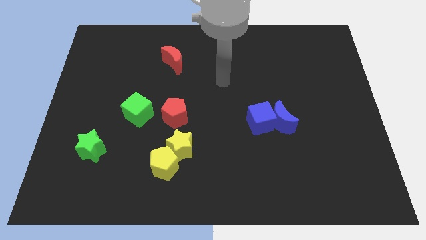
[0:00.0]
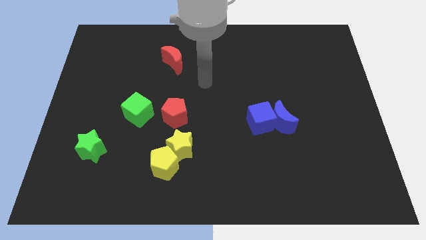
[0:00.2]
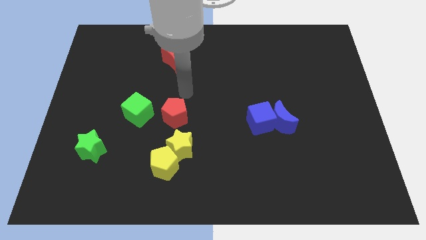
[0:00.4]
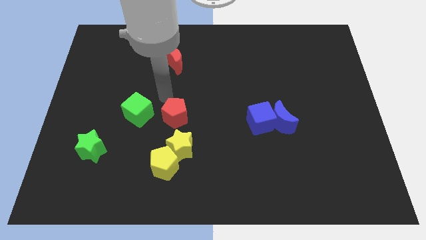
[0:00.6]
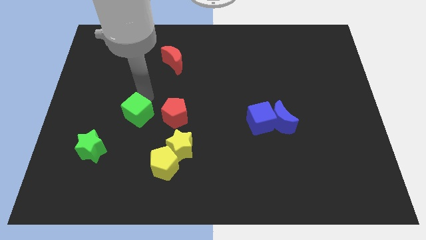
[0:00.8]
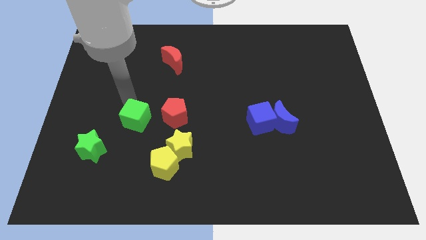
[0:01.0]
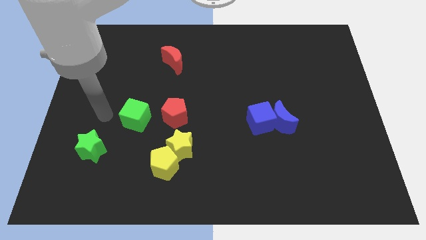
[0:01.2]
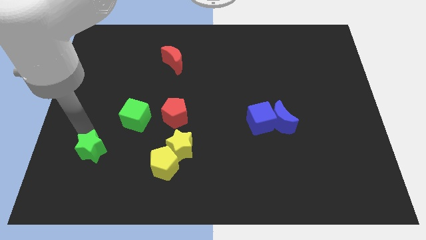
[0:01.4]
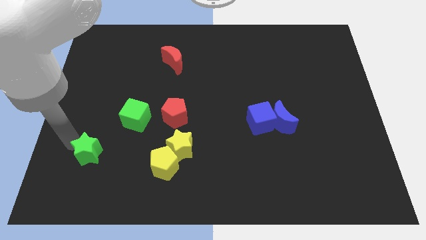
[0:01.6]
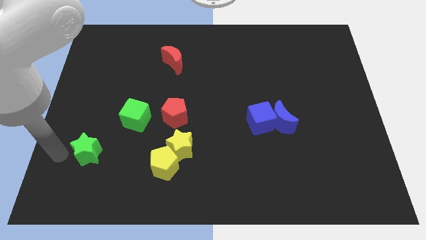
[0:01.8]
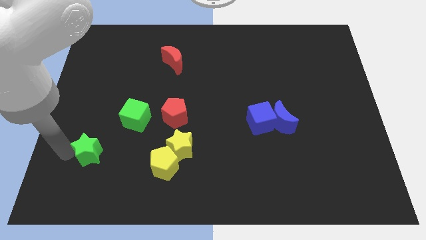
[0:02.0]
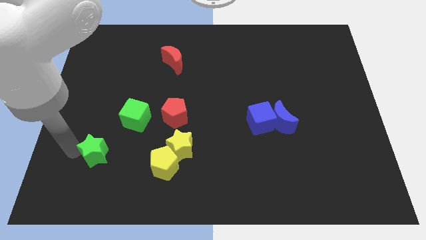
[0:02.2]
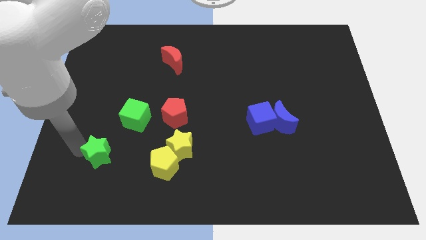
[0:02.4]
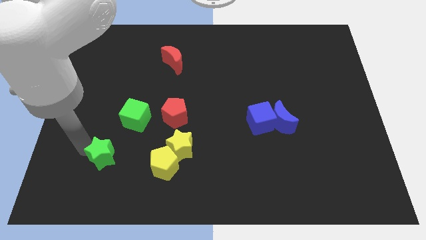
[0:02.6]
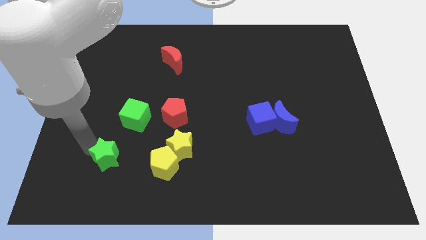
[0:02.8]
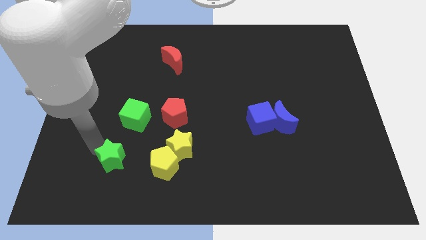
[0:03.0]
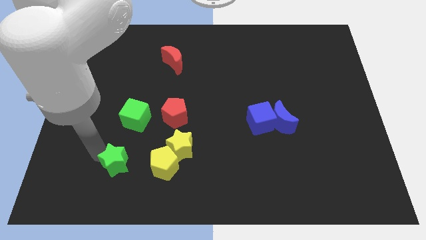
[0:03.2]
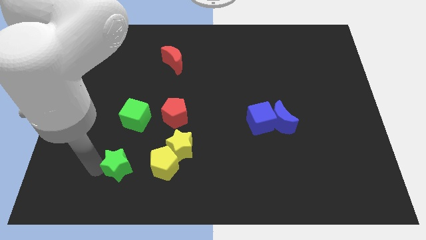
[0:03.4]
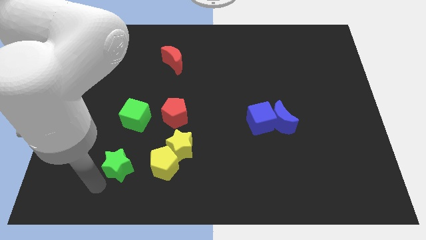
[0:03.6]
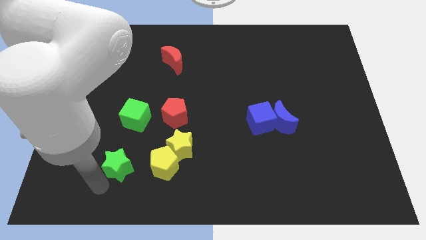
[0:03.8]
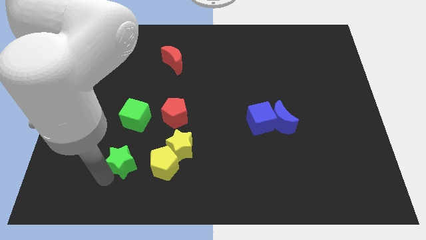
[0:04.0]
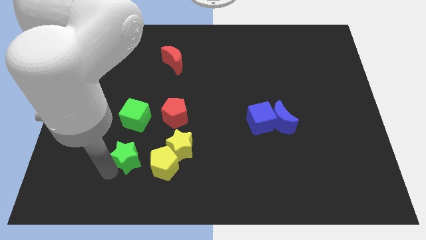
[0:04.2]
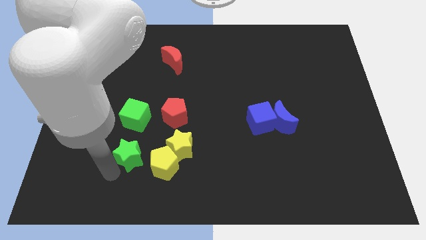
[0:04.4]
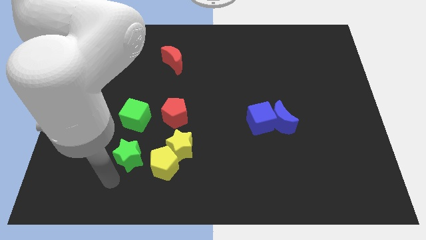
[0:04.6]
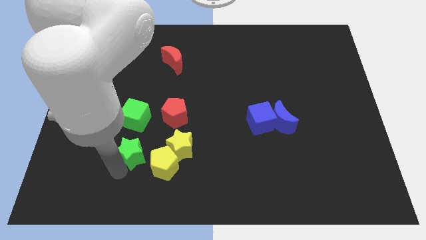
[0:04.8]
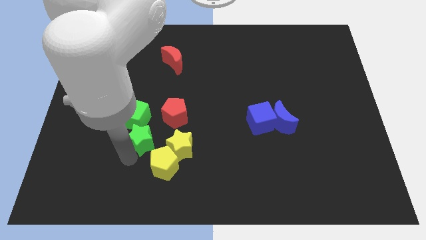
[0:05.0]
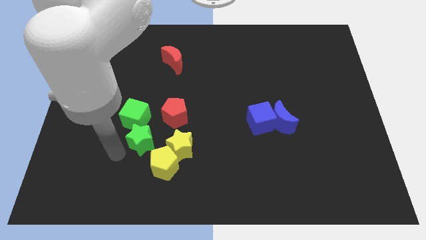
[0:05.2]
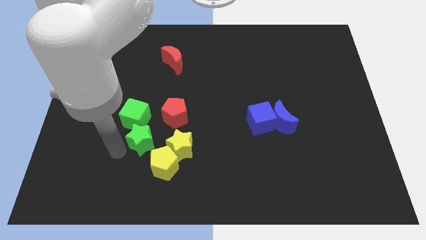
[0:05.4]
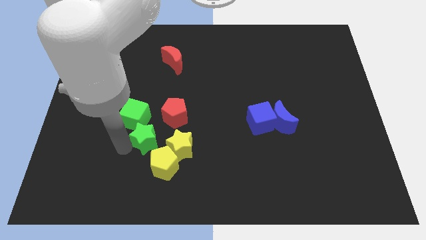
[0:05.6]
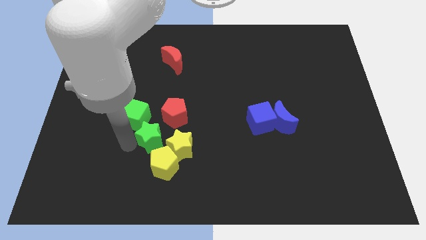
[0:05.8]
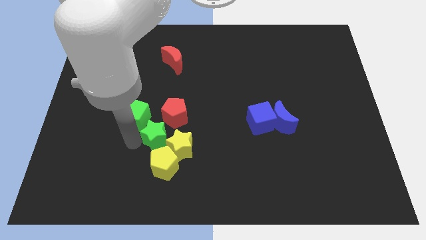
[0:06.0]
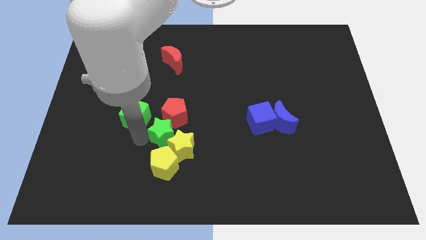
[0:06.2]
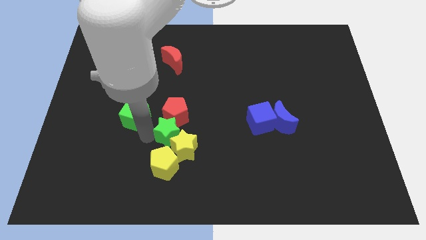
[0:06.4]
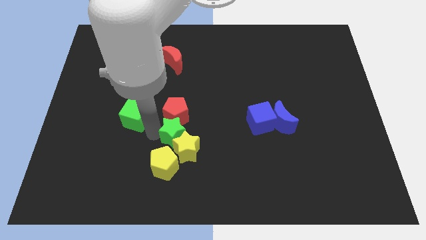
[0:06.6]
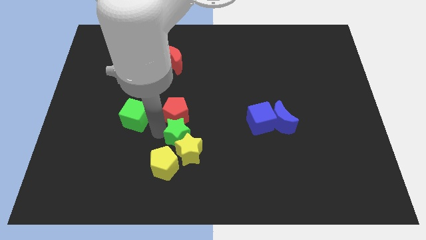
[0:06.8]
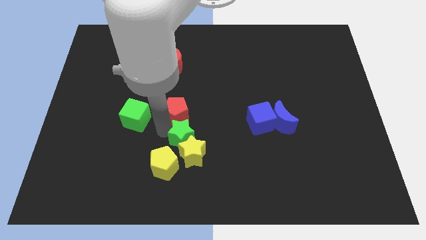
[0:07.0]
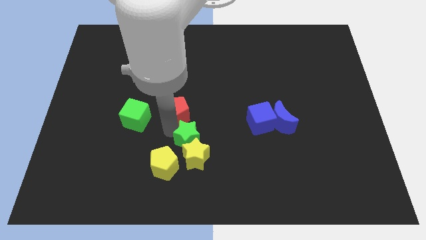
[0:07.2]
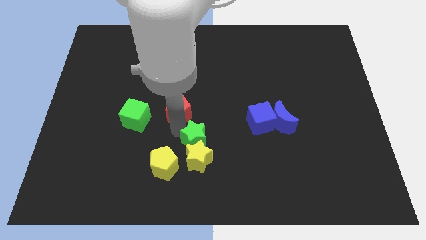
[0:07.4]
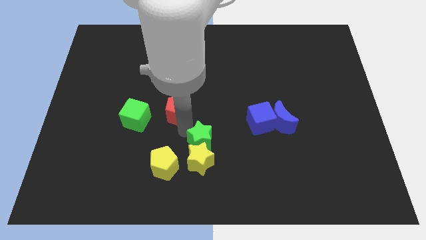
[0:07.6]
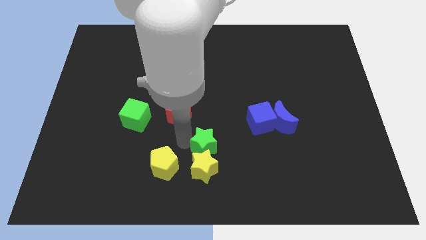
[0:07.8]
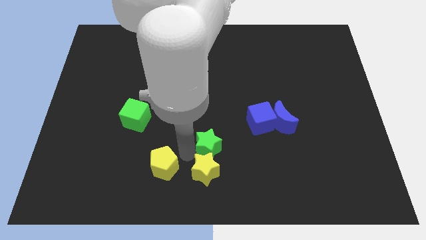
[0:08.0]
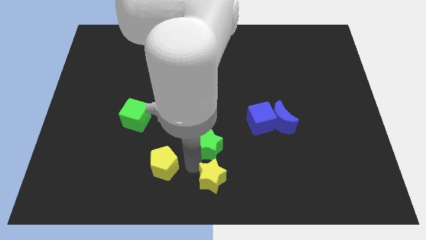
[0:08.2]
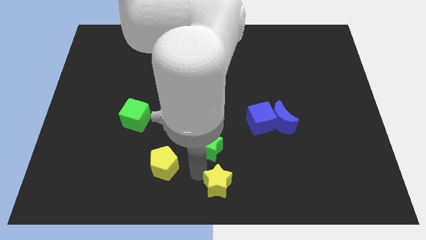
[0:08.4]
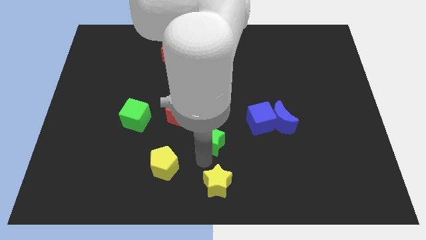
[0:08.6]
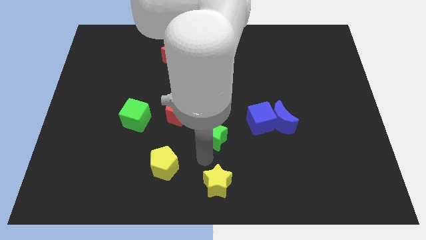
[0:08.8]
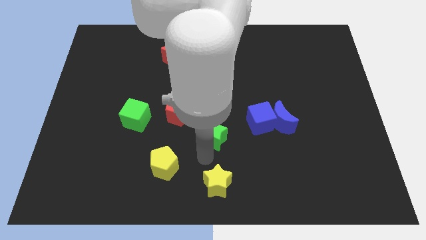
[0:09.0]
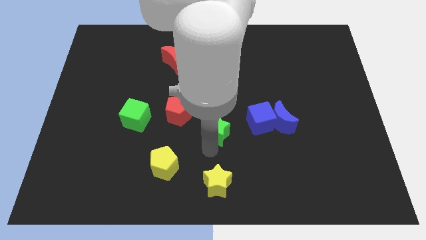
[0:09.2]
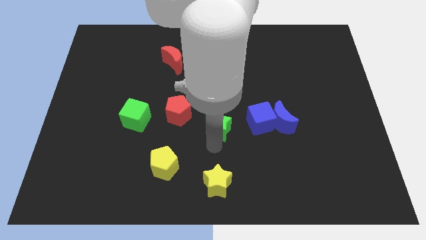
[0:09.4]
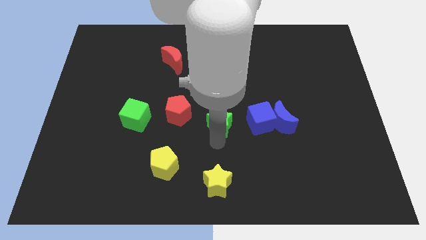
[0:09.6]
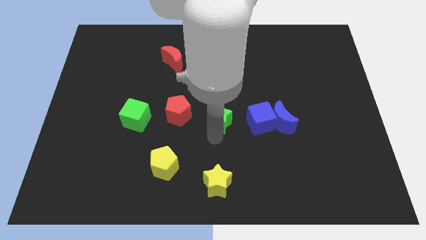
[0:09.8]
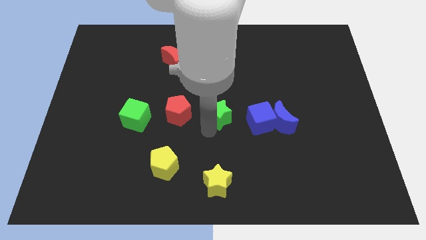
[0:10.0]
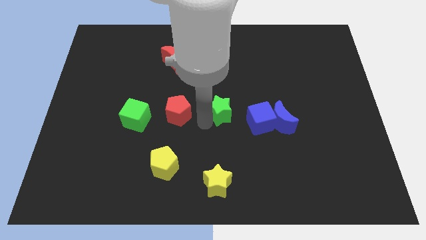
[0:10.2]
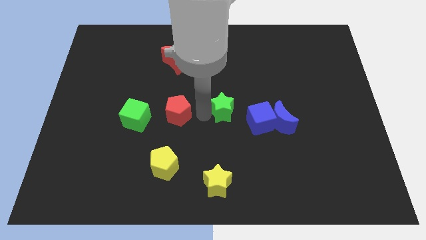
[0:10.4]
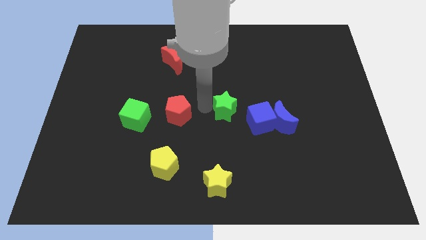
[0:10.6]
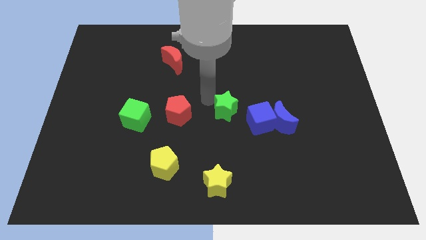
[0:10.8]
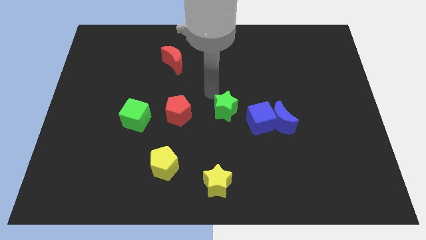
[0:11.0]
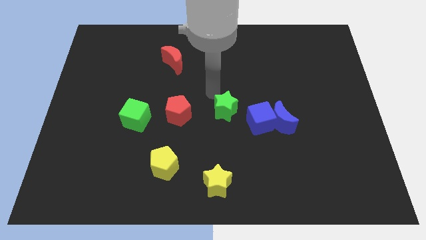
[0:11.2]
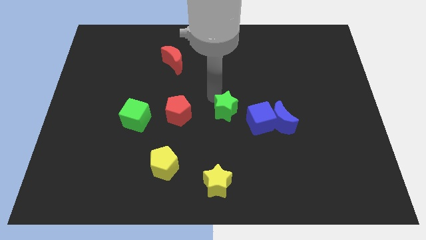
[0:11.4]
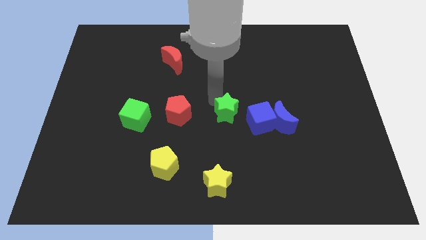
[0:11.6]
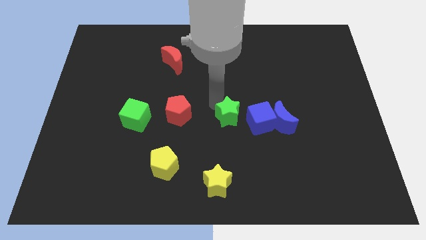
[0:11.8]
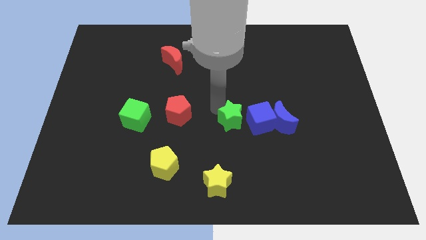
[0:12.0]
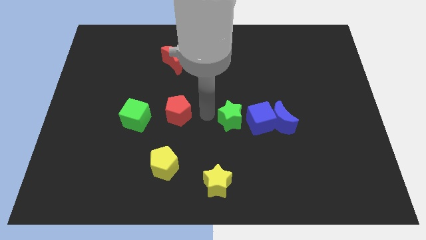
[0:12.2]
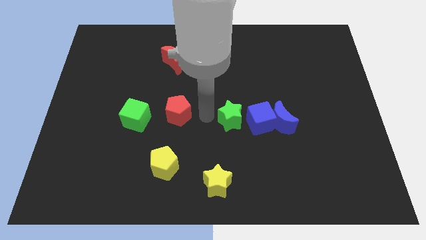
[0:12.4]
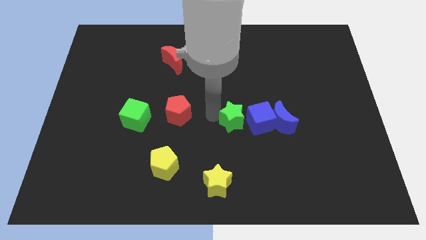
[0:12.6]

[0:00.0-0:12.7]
put the green star next to the blue cube

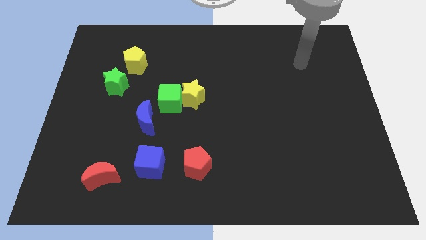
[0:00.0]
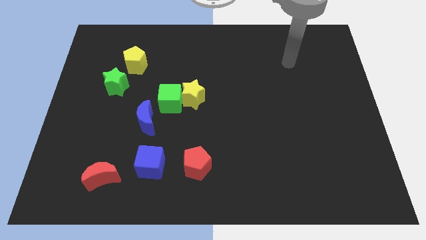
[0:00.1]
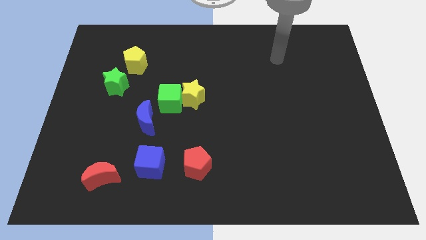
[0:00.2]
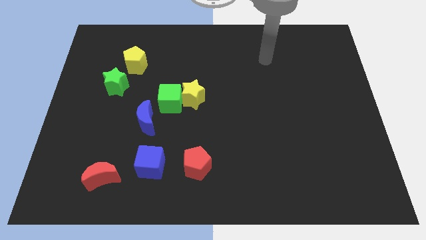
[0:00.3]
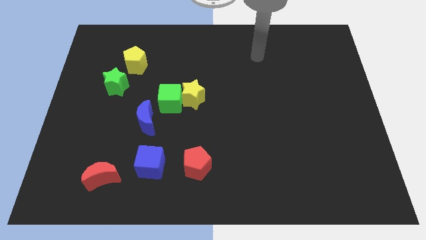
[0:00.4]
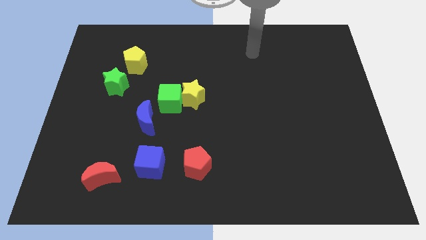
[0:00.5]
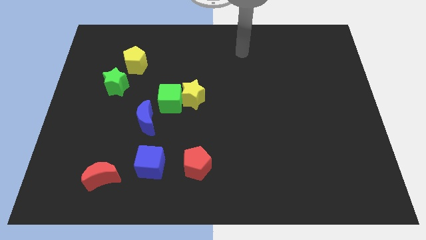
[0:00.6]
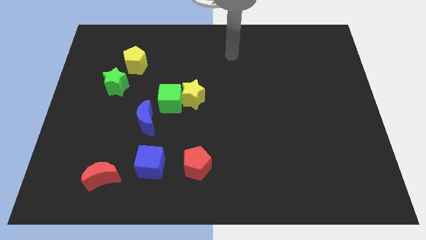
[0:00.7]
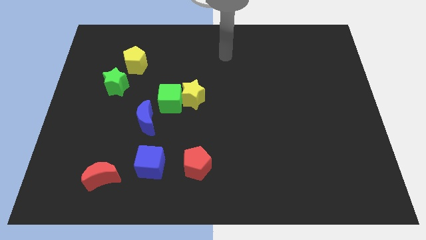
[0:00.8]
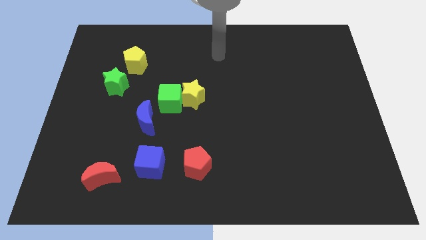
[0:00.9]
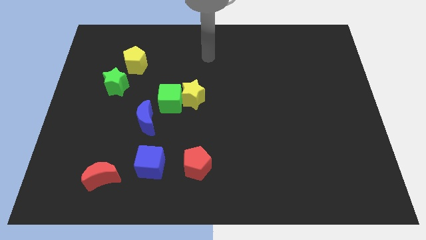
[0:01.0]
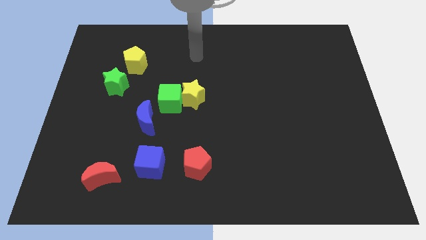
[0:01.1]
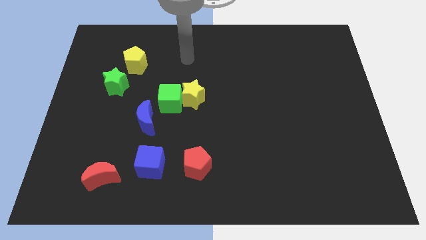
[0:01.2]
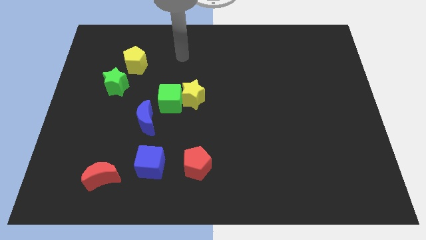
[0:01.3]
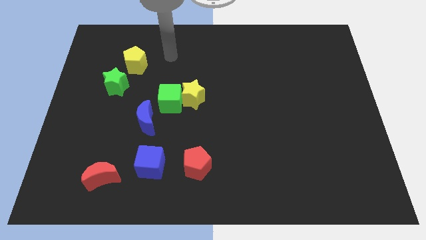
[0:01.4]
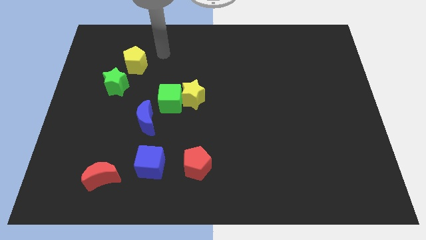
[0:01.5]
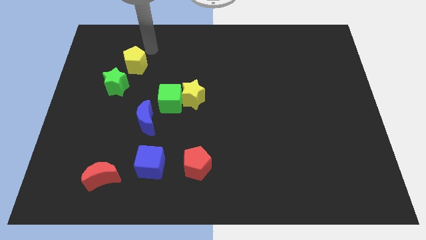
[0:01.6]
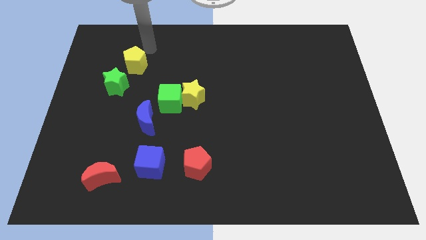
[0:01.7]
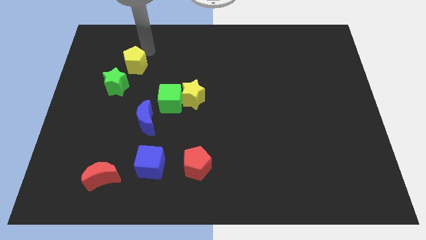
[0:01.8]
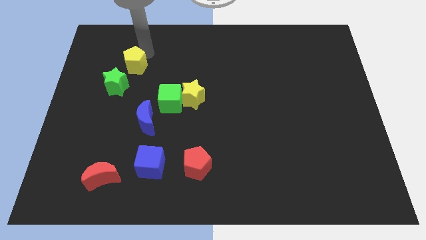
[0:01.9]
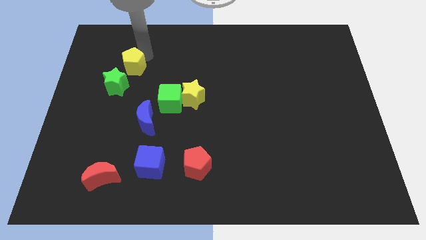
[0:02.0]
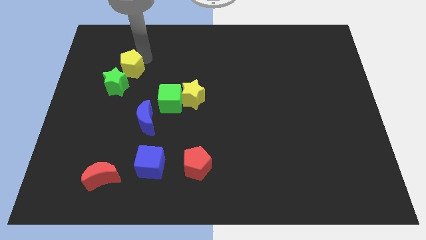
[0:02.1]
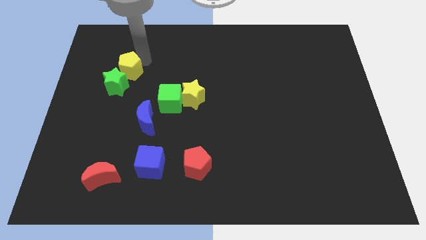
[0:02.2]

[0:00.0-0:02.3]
put the yellow pentagon to the green star
